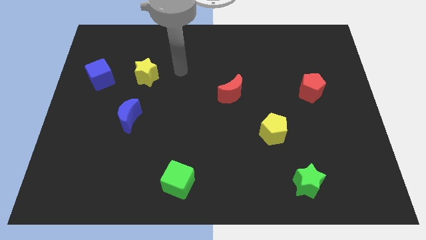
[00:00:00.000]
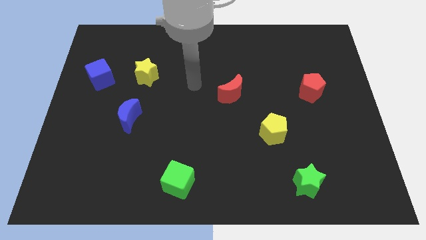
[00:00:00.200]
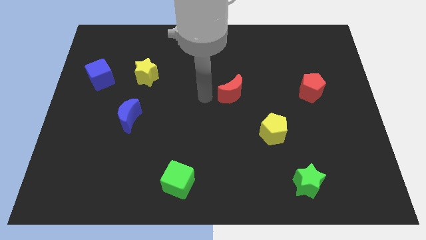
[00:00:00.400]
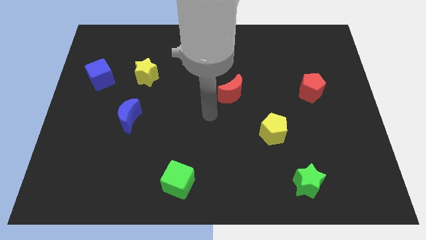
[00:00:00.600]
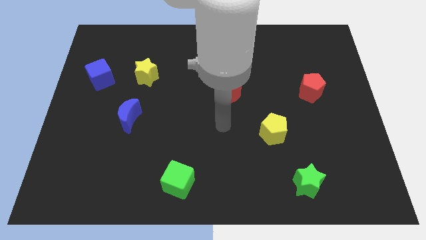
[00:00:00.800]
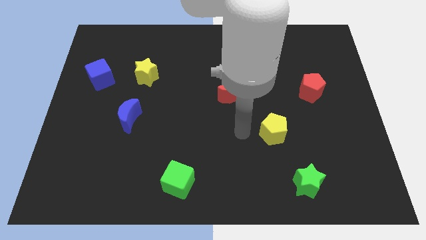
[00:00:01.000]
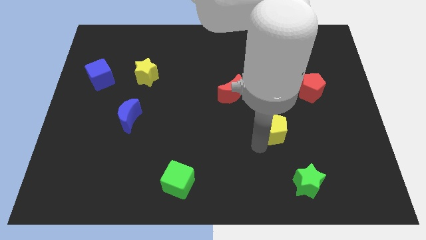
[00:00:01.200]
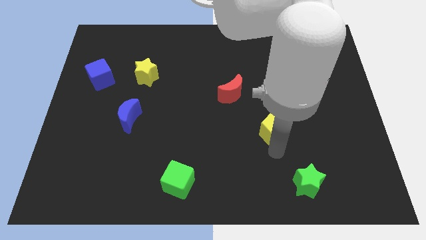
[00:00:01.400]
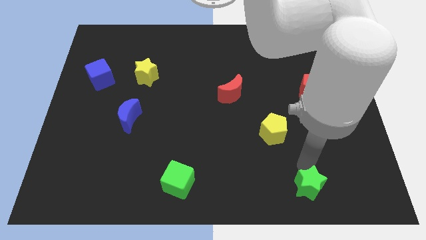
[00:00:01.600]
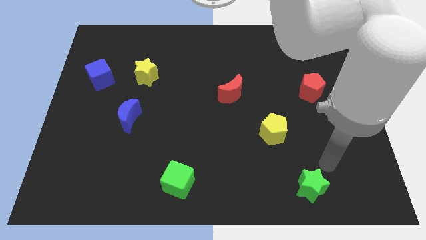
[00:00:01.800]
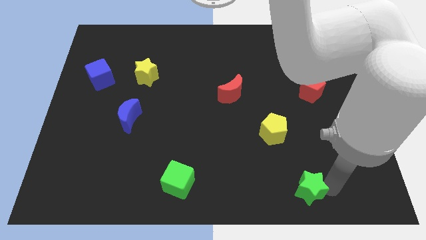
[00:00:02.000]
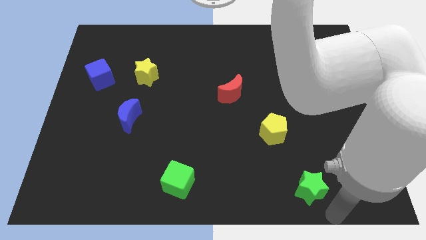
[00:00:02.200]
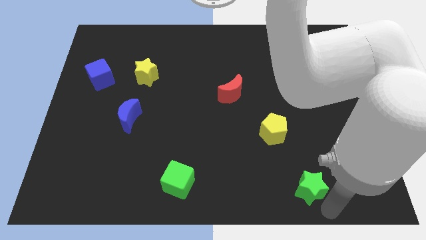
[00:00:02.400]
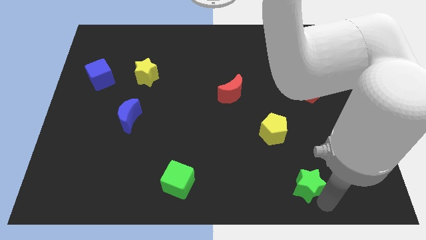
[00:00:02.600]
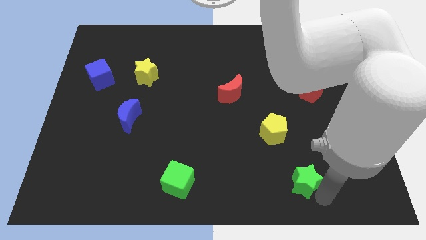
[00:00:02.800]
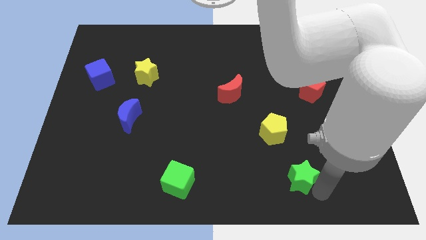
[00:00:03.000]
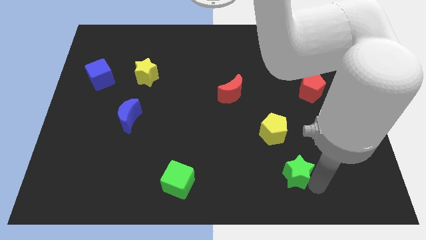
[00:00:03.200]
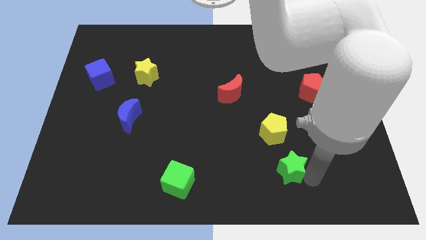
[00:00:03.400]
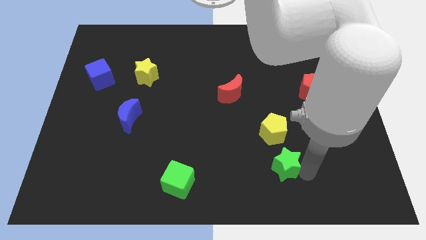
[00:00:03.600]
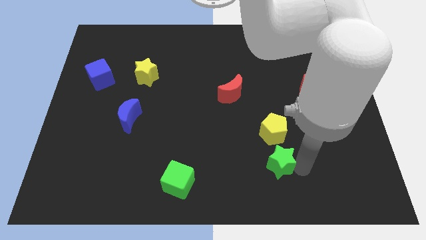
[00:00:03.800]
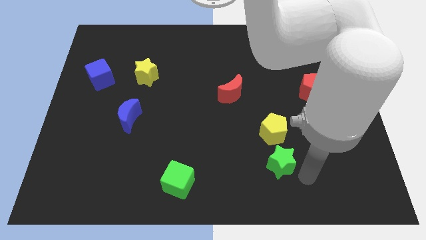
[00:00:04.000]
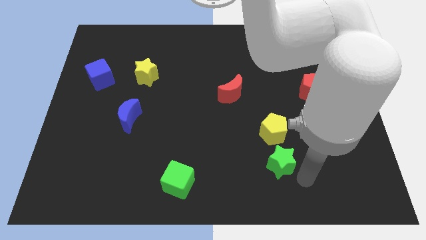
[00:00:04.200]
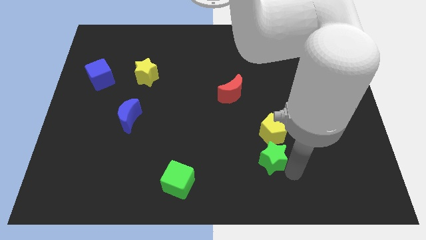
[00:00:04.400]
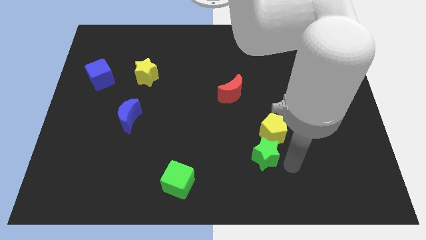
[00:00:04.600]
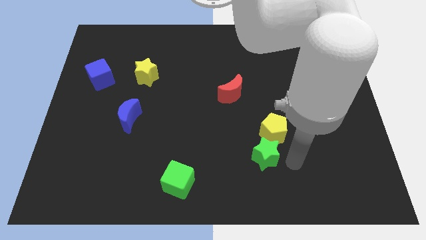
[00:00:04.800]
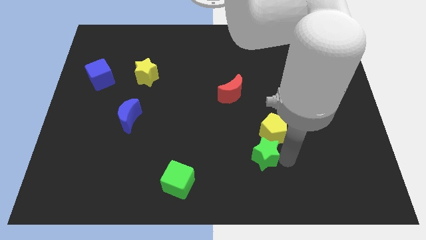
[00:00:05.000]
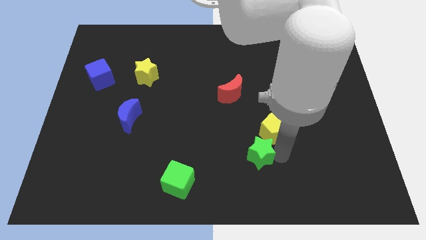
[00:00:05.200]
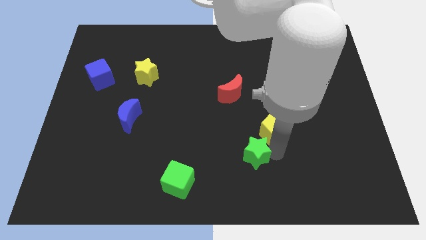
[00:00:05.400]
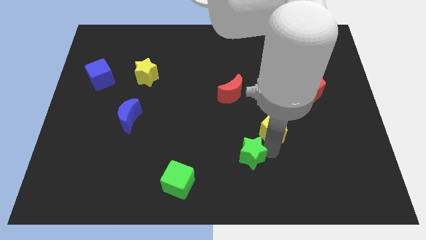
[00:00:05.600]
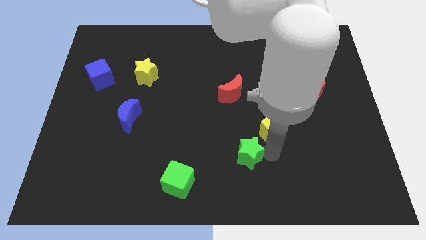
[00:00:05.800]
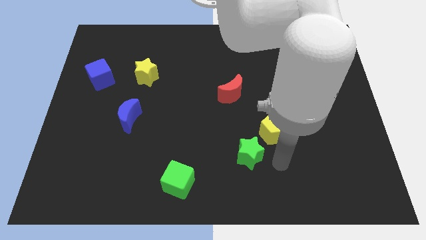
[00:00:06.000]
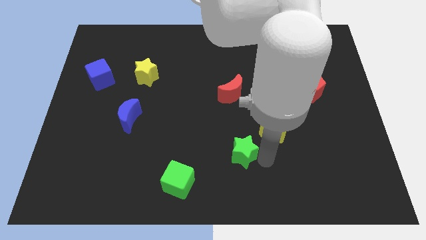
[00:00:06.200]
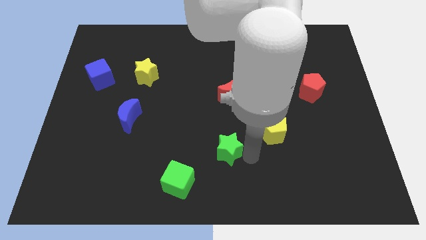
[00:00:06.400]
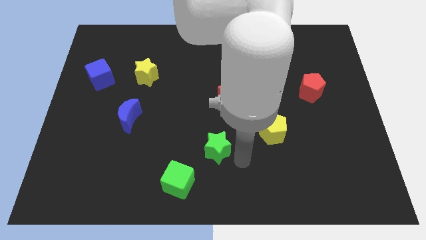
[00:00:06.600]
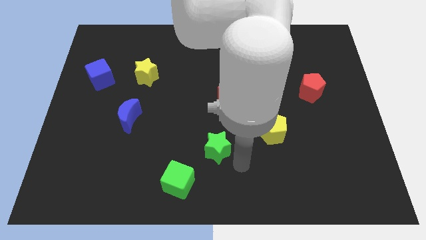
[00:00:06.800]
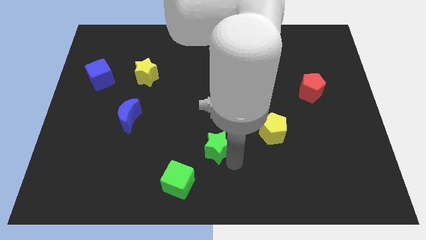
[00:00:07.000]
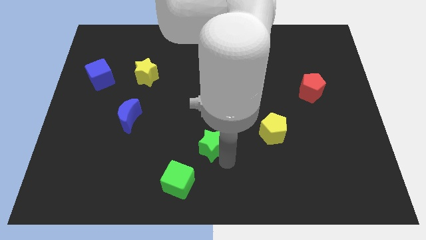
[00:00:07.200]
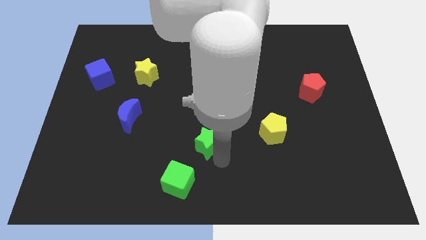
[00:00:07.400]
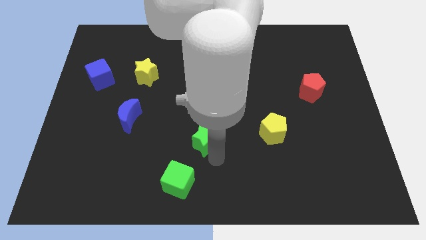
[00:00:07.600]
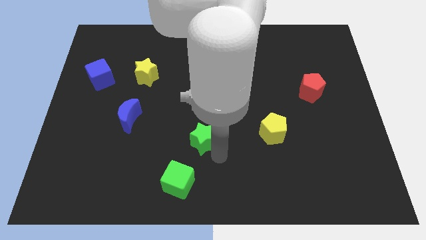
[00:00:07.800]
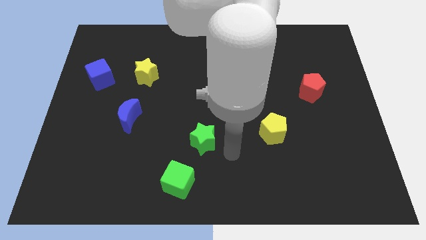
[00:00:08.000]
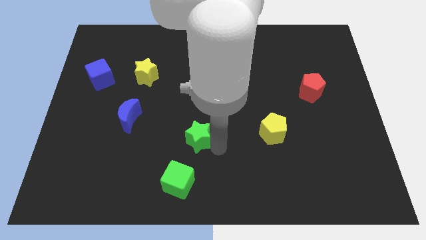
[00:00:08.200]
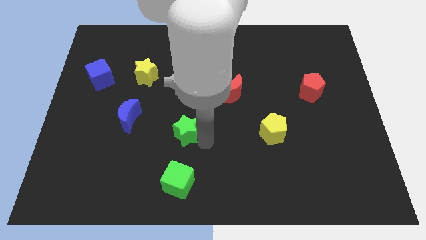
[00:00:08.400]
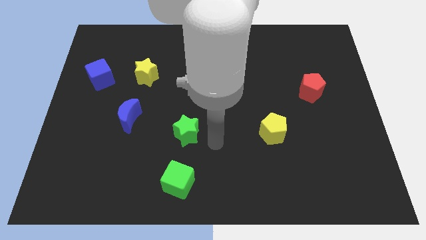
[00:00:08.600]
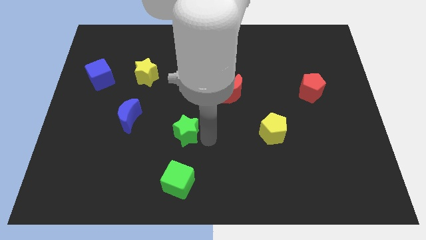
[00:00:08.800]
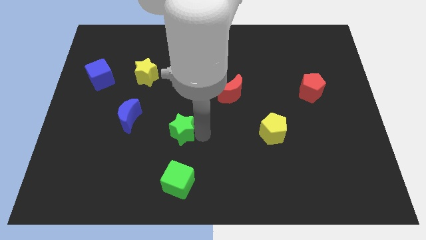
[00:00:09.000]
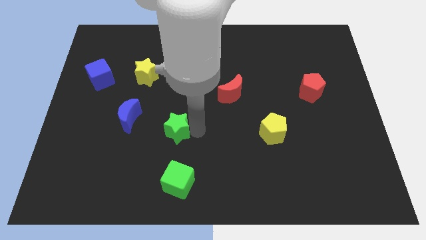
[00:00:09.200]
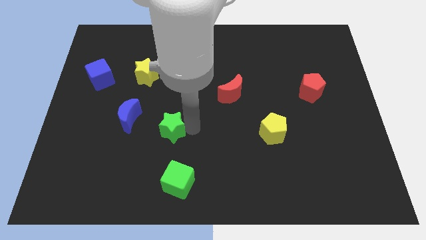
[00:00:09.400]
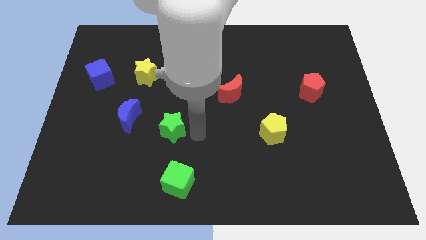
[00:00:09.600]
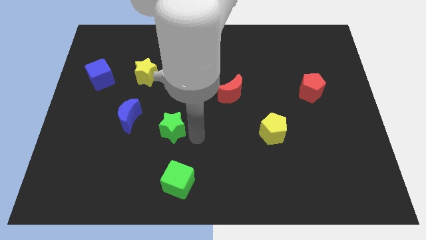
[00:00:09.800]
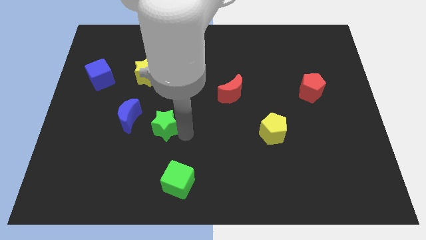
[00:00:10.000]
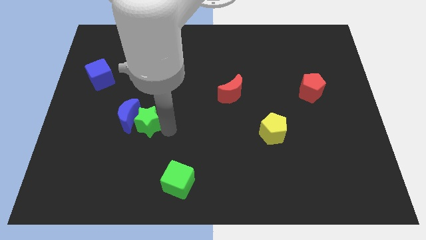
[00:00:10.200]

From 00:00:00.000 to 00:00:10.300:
put the green star close to the blue moon

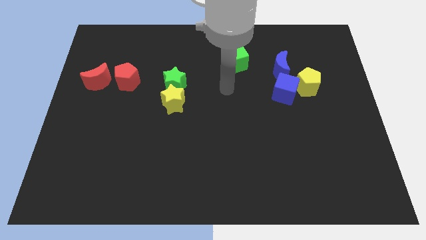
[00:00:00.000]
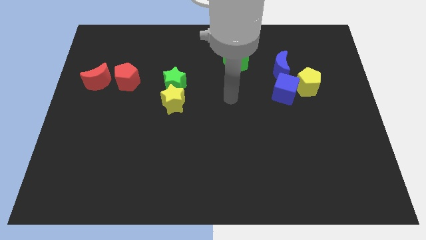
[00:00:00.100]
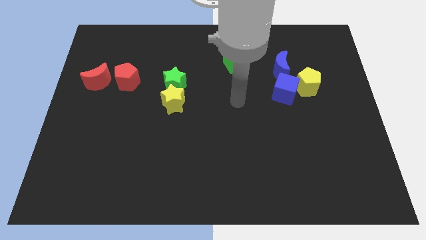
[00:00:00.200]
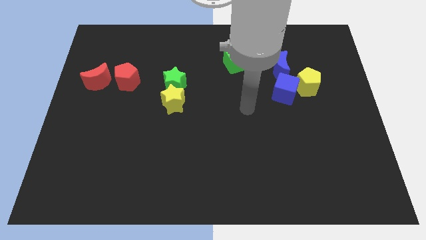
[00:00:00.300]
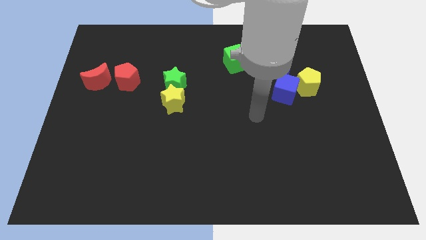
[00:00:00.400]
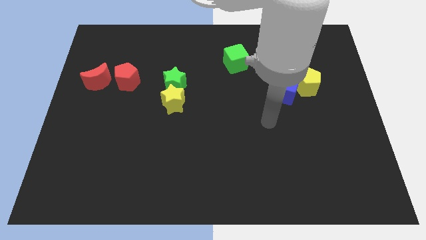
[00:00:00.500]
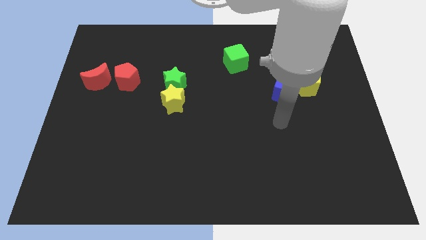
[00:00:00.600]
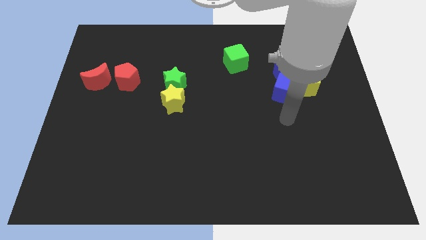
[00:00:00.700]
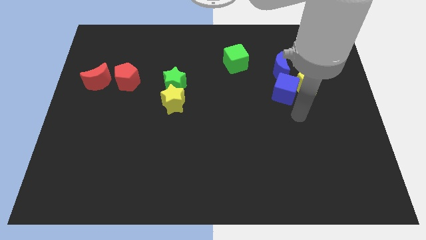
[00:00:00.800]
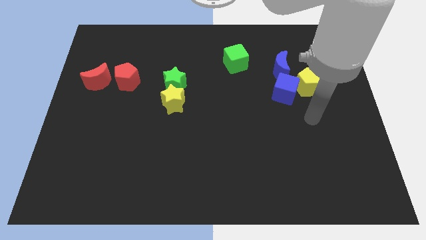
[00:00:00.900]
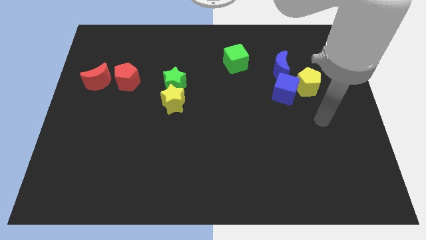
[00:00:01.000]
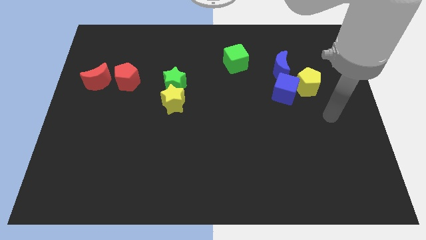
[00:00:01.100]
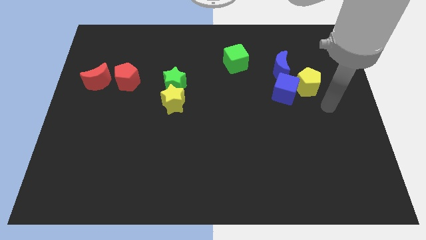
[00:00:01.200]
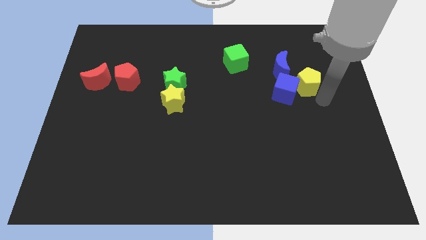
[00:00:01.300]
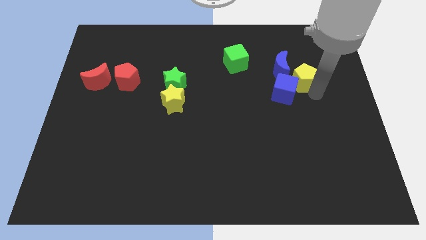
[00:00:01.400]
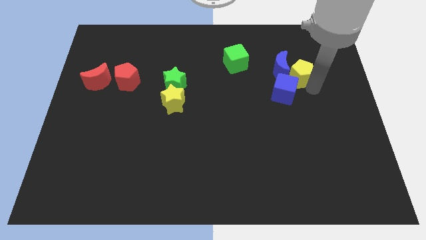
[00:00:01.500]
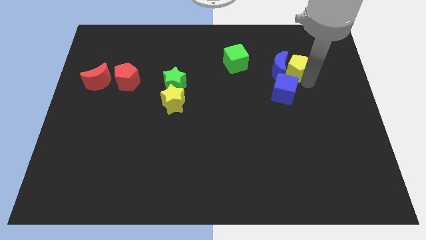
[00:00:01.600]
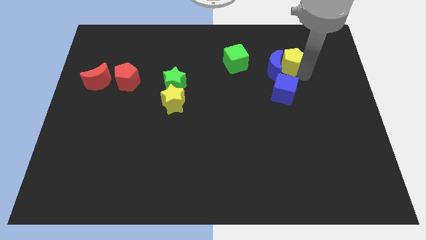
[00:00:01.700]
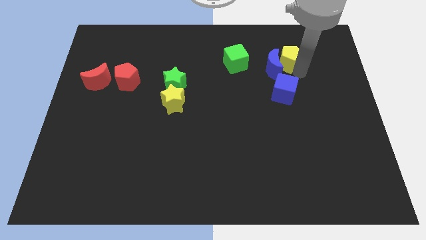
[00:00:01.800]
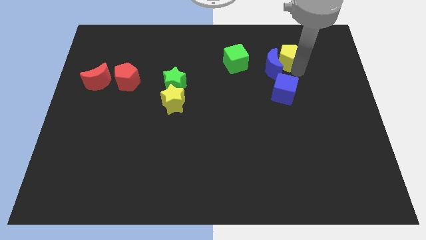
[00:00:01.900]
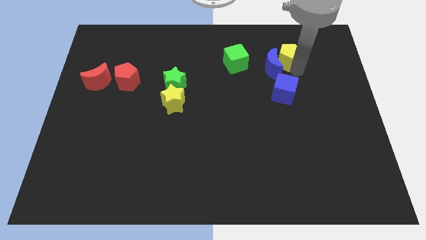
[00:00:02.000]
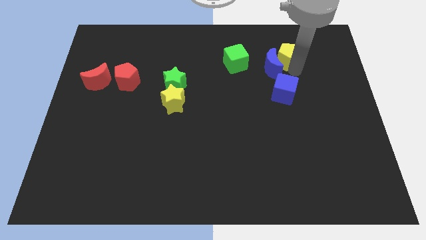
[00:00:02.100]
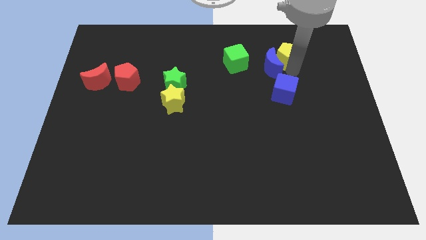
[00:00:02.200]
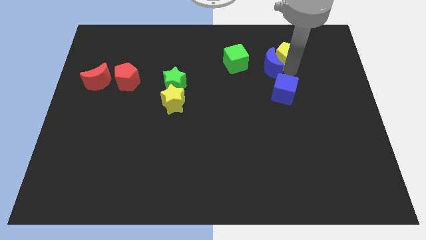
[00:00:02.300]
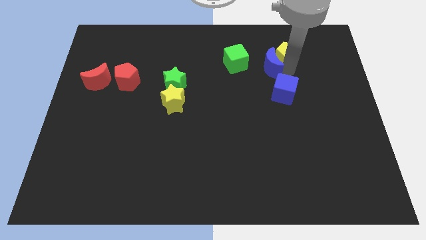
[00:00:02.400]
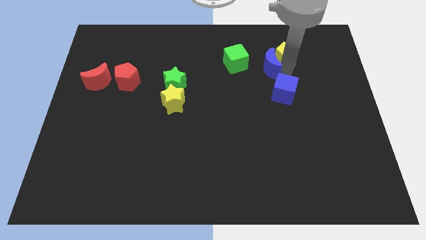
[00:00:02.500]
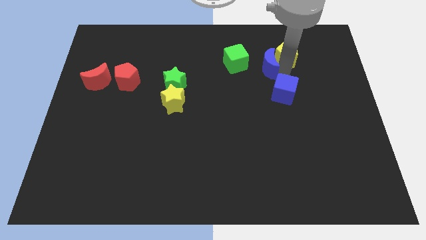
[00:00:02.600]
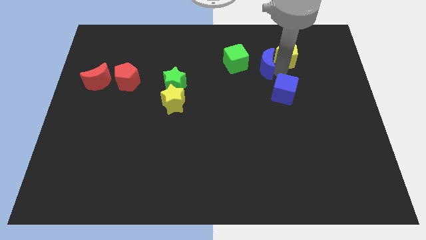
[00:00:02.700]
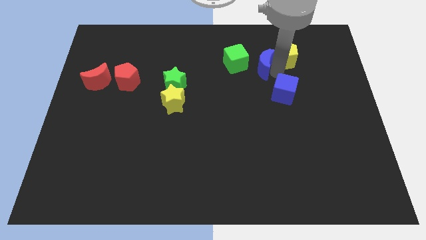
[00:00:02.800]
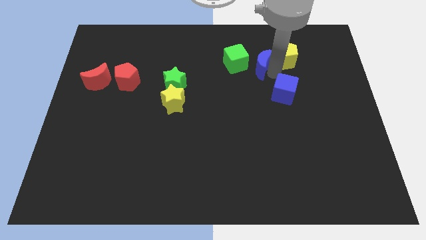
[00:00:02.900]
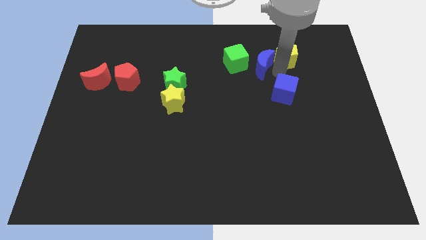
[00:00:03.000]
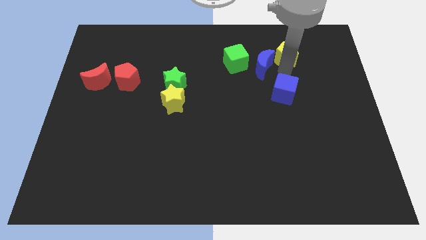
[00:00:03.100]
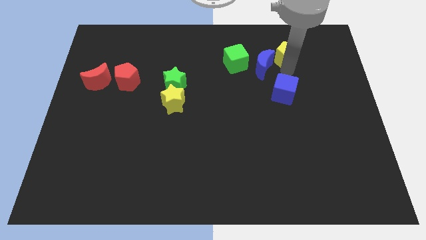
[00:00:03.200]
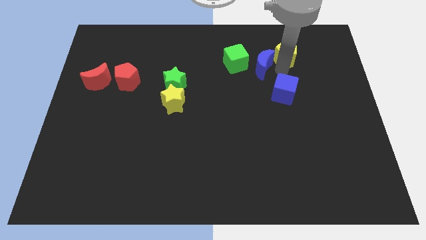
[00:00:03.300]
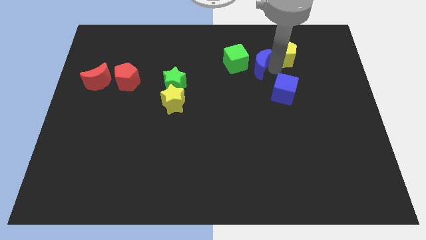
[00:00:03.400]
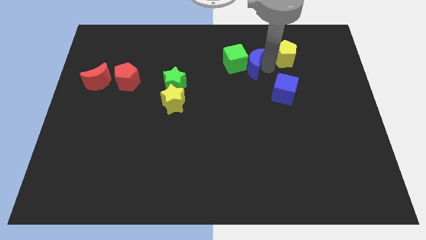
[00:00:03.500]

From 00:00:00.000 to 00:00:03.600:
slide the blue moon close to the green cube
